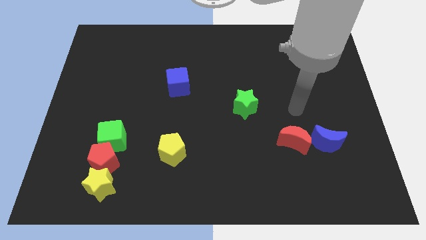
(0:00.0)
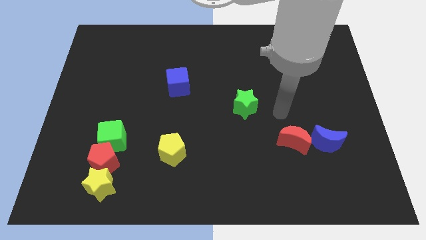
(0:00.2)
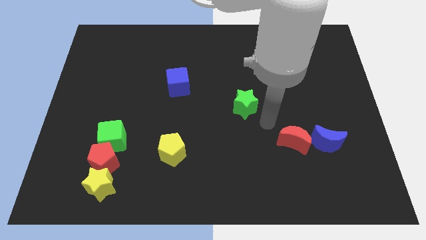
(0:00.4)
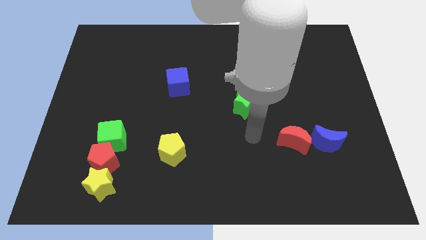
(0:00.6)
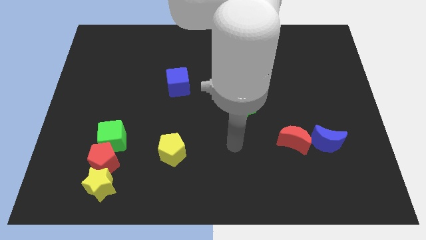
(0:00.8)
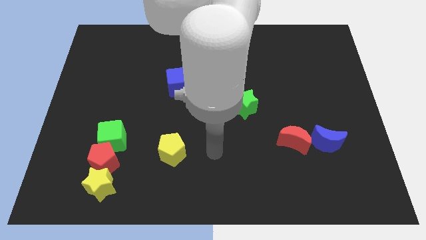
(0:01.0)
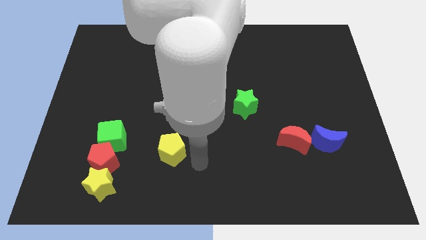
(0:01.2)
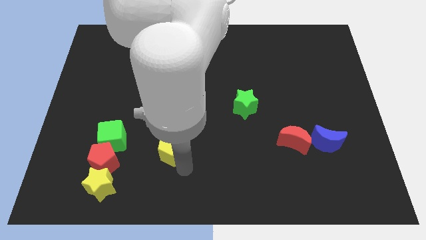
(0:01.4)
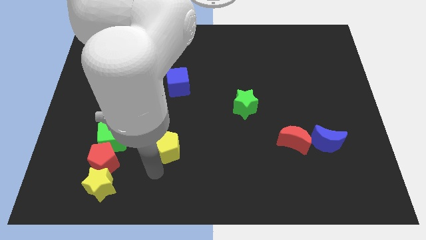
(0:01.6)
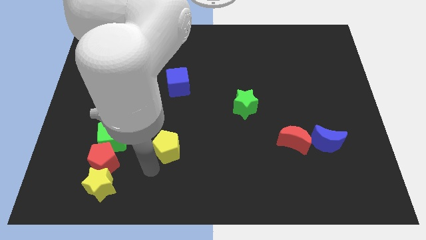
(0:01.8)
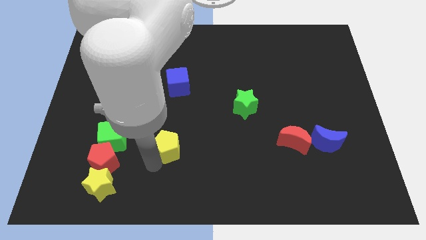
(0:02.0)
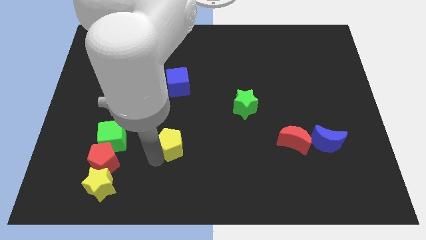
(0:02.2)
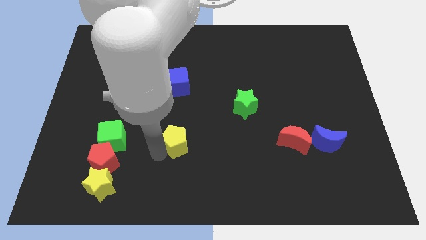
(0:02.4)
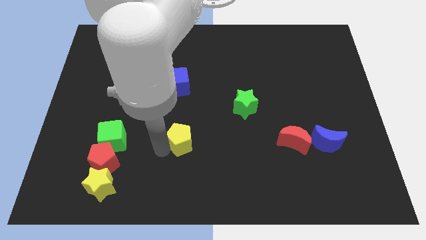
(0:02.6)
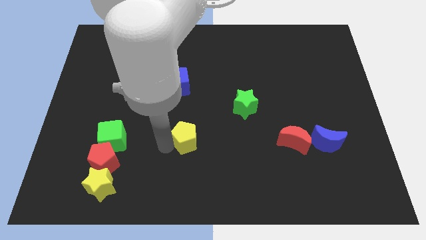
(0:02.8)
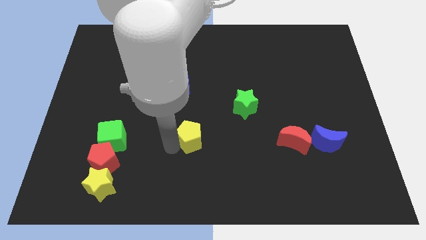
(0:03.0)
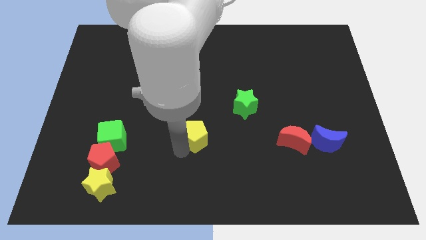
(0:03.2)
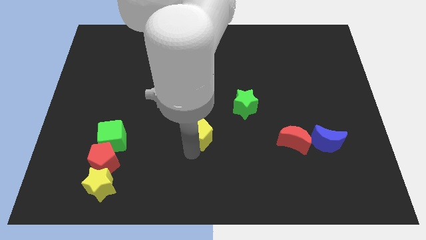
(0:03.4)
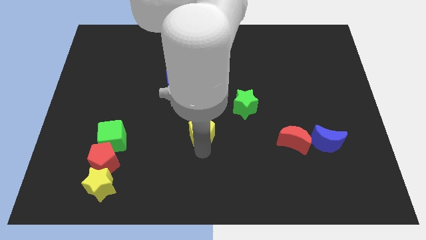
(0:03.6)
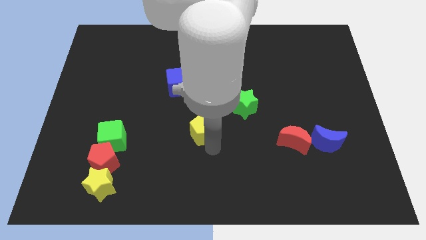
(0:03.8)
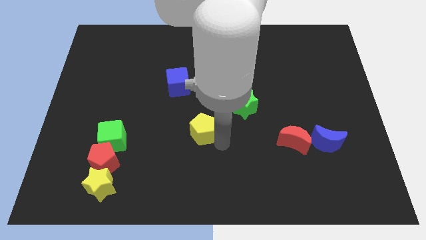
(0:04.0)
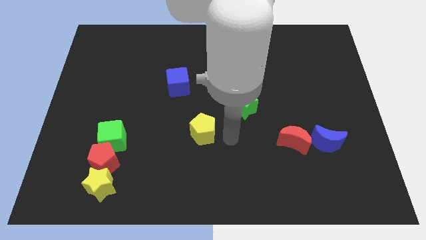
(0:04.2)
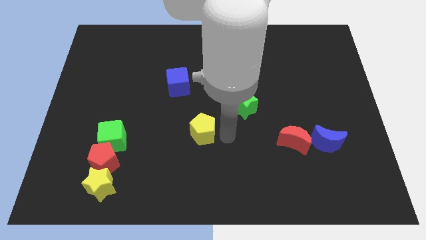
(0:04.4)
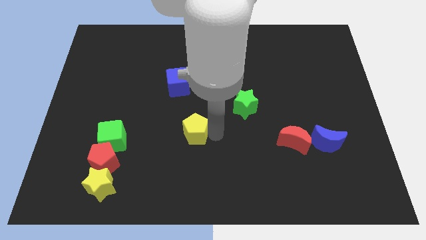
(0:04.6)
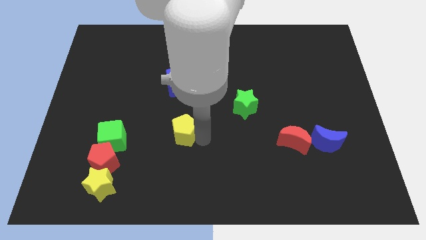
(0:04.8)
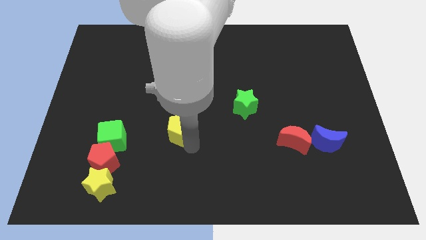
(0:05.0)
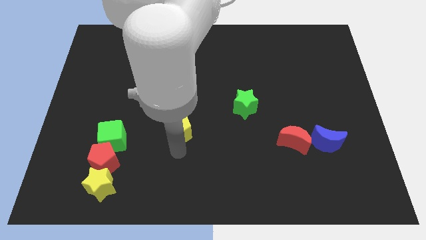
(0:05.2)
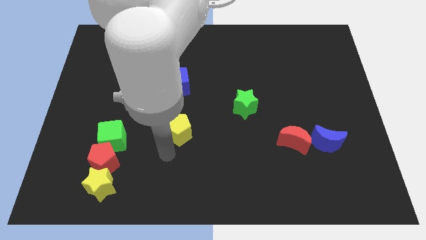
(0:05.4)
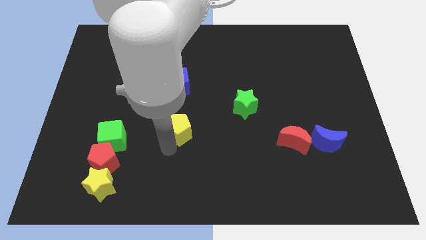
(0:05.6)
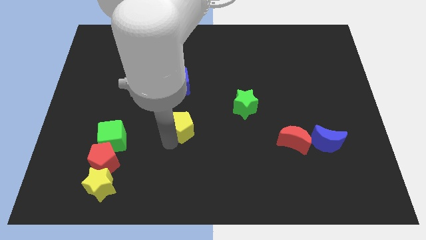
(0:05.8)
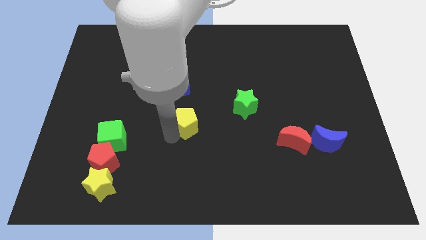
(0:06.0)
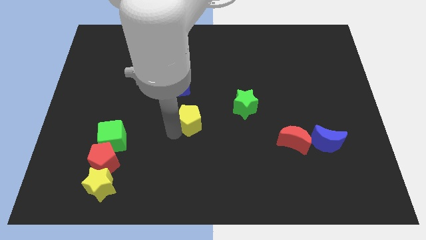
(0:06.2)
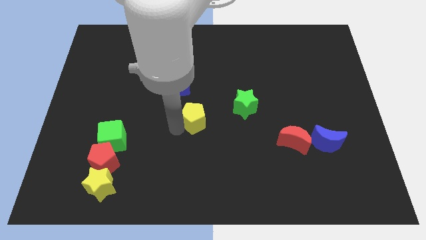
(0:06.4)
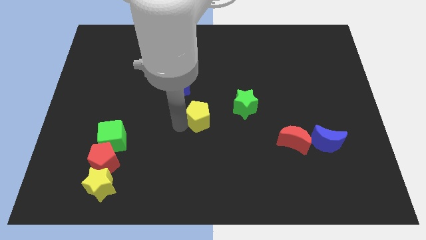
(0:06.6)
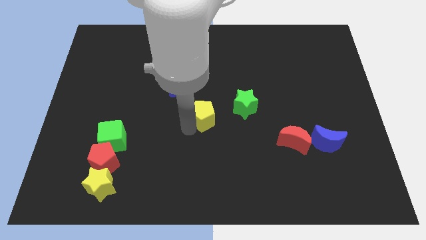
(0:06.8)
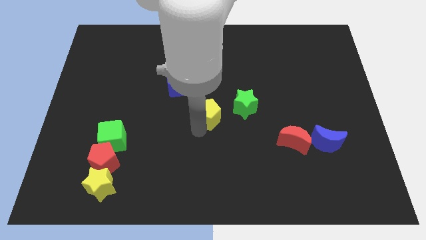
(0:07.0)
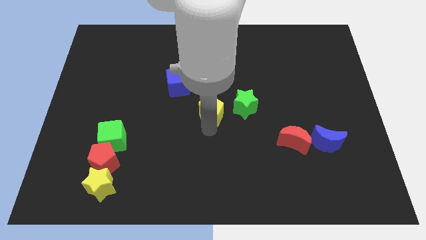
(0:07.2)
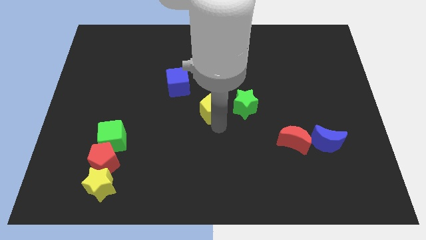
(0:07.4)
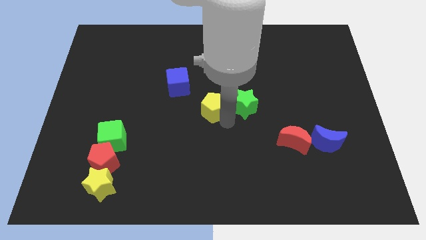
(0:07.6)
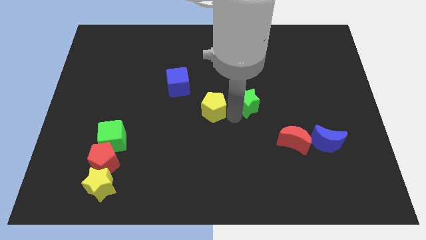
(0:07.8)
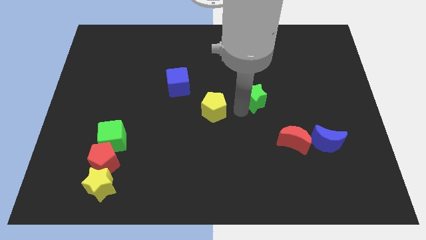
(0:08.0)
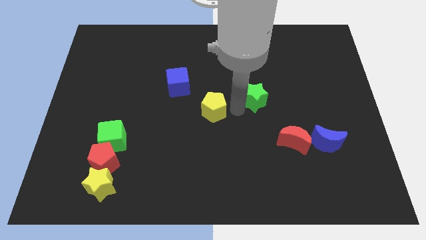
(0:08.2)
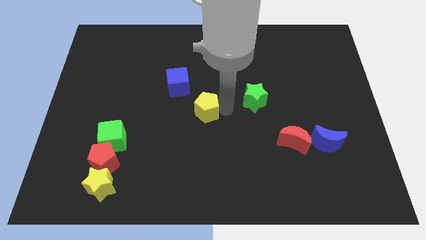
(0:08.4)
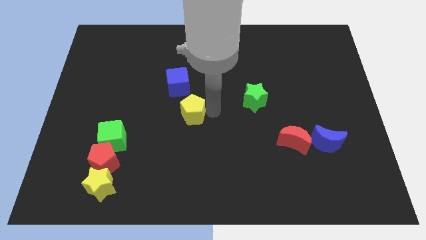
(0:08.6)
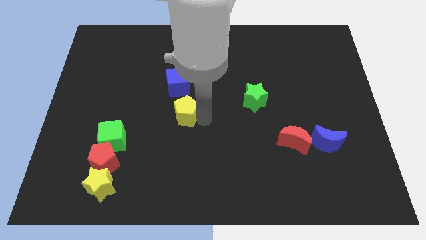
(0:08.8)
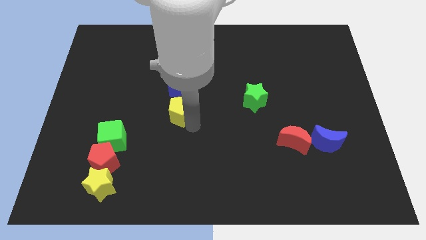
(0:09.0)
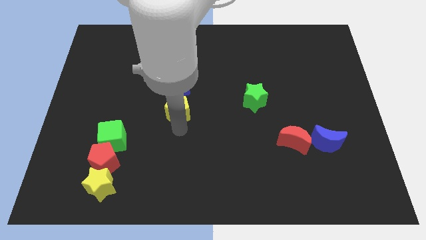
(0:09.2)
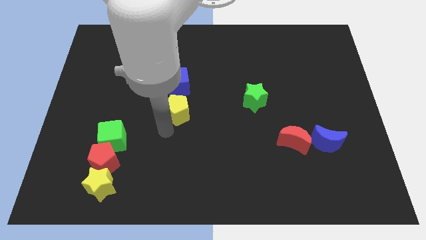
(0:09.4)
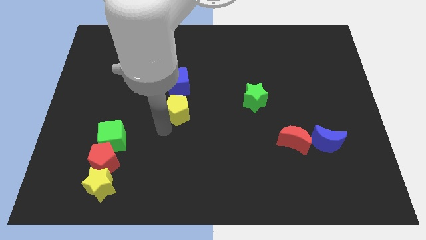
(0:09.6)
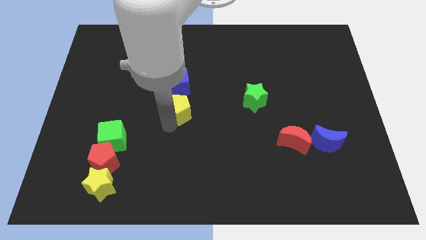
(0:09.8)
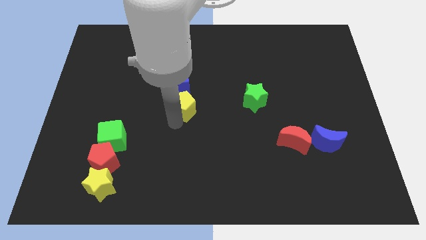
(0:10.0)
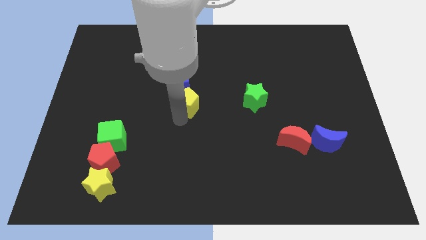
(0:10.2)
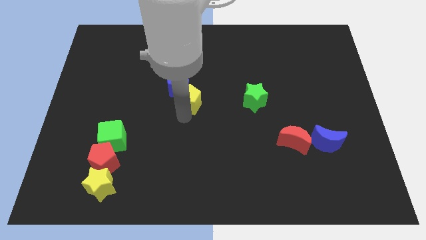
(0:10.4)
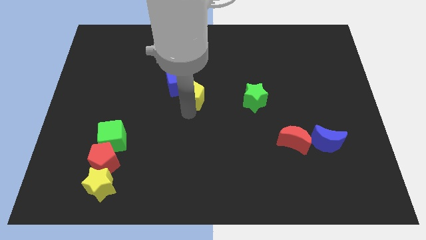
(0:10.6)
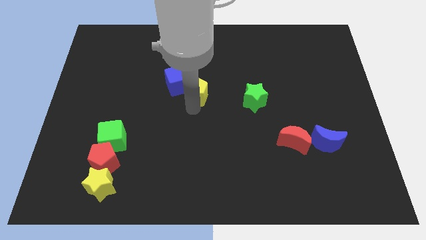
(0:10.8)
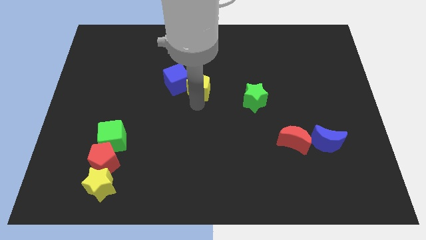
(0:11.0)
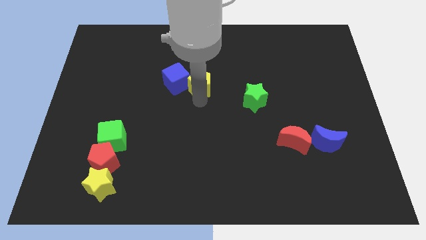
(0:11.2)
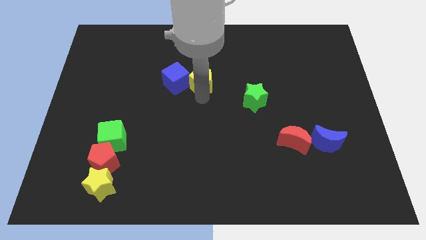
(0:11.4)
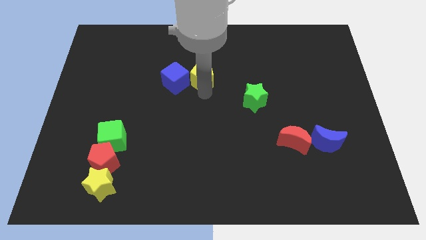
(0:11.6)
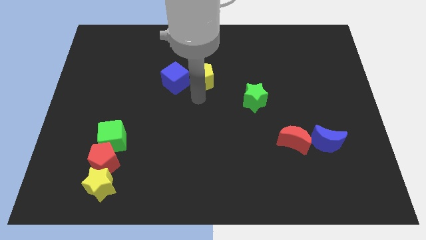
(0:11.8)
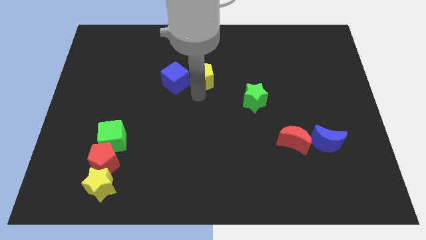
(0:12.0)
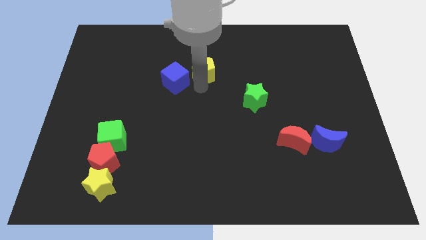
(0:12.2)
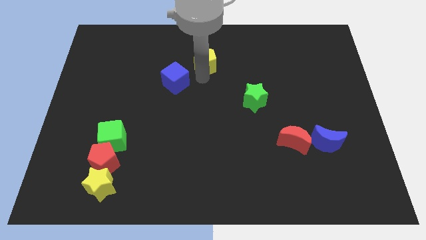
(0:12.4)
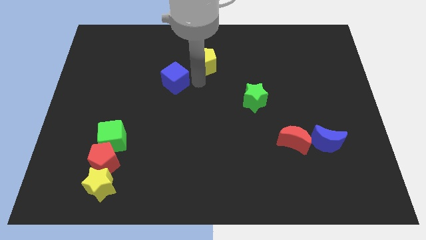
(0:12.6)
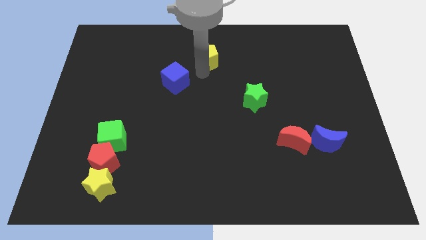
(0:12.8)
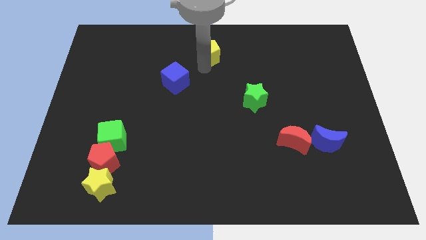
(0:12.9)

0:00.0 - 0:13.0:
put the yellow pentagon to the top side
